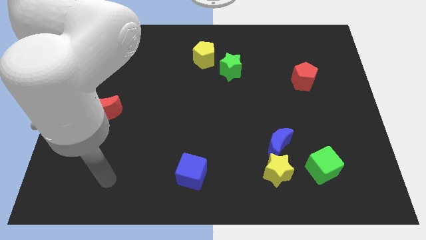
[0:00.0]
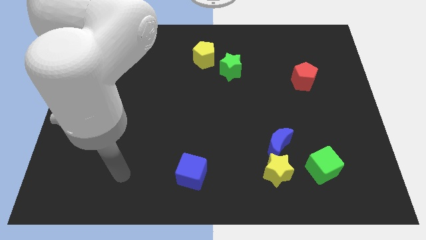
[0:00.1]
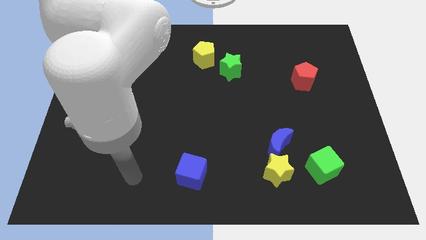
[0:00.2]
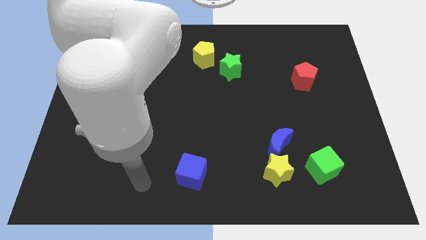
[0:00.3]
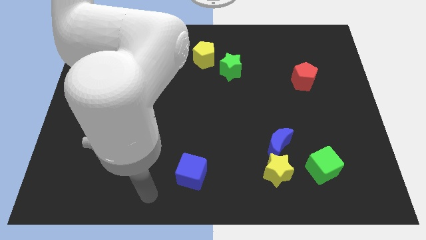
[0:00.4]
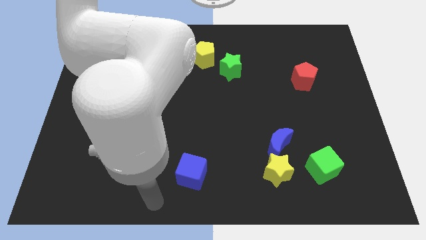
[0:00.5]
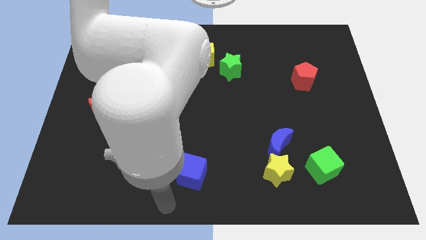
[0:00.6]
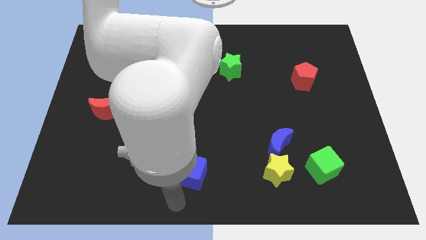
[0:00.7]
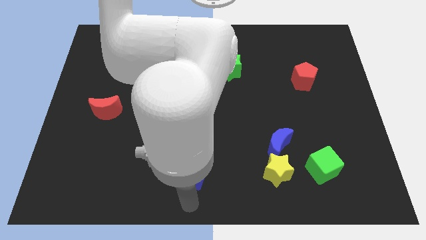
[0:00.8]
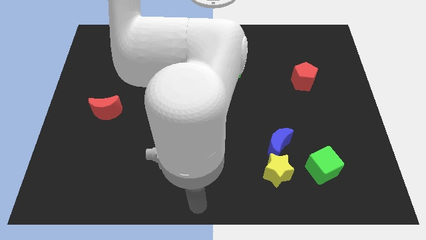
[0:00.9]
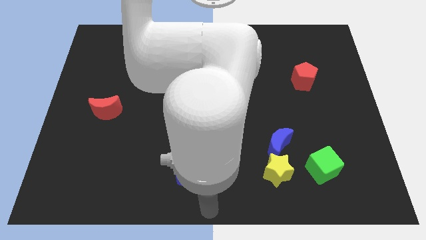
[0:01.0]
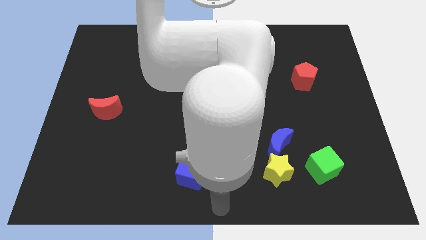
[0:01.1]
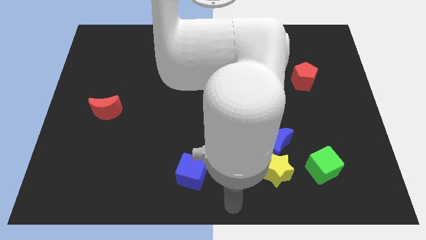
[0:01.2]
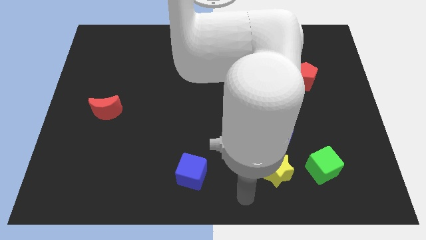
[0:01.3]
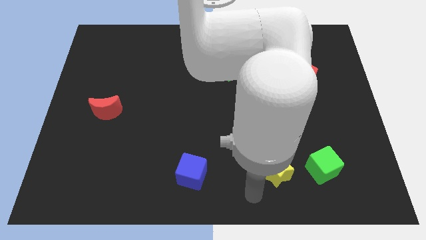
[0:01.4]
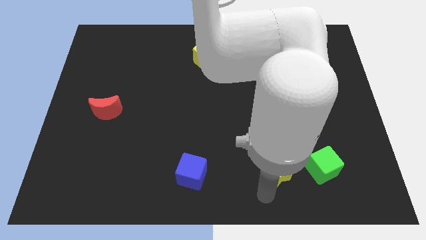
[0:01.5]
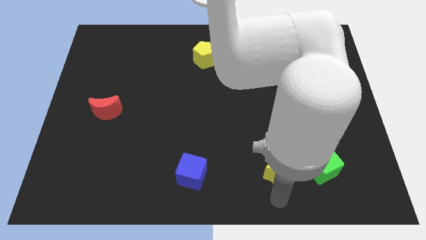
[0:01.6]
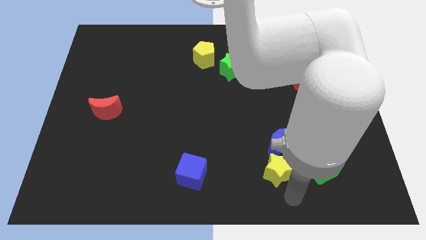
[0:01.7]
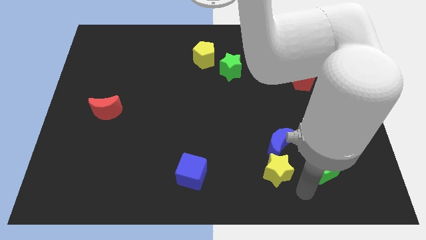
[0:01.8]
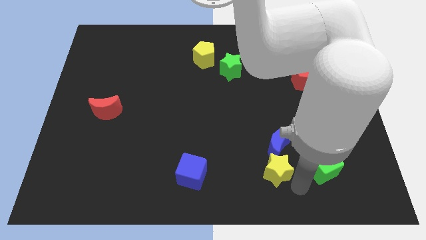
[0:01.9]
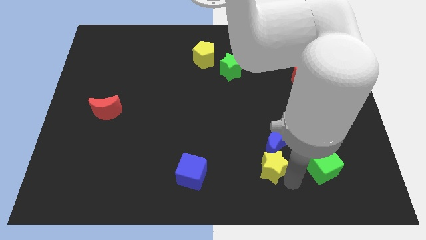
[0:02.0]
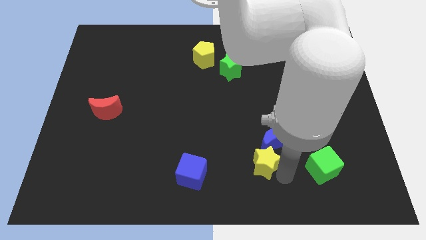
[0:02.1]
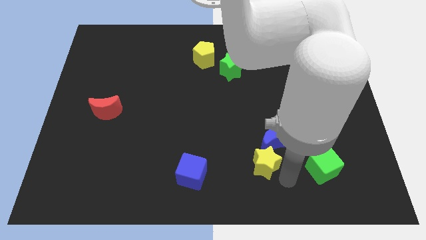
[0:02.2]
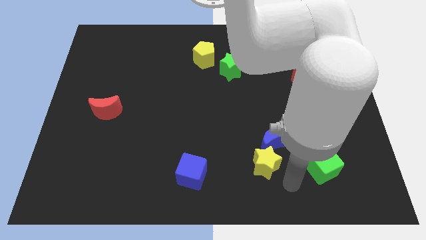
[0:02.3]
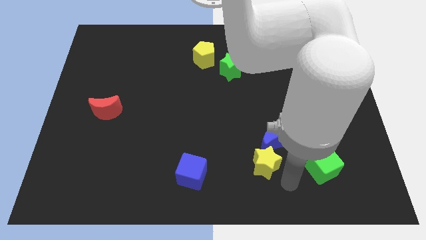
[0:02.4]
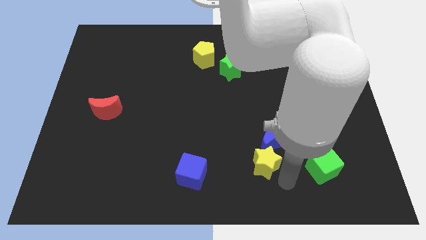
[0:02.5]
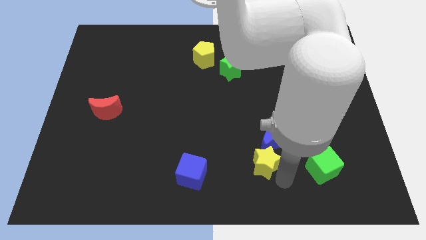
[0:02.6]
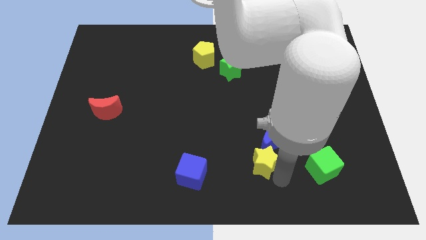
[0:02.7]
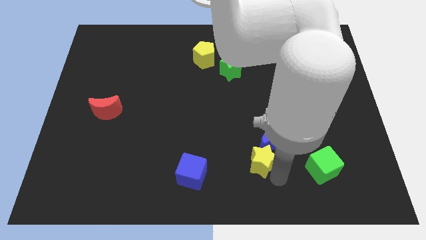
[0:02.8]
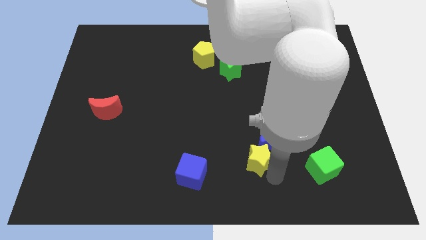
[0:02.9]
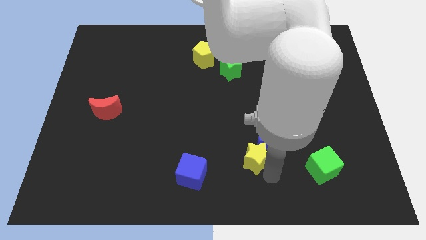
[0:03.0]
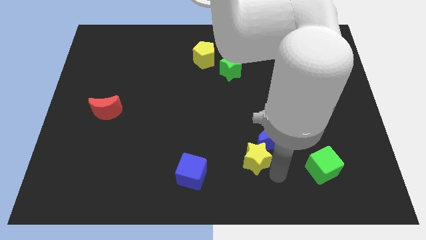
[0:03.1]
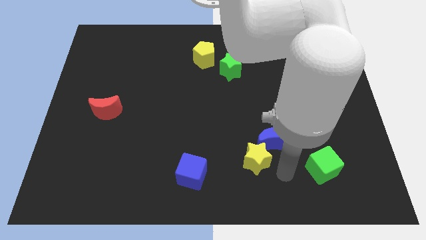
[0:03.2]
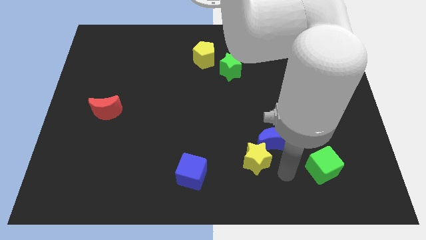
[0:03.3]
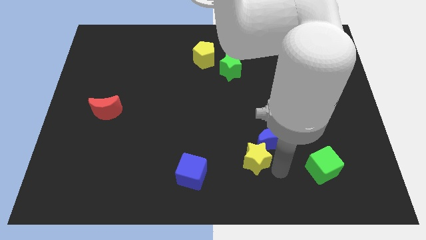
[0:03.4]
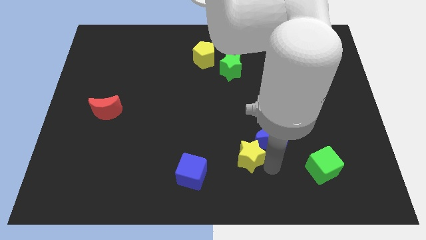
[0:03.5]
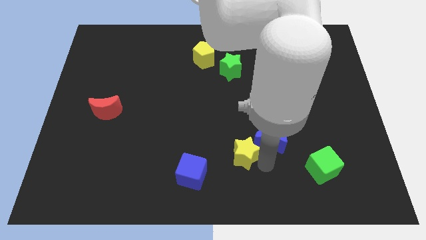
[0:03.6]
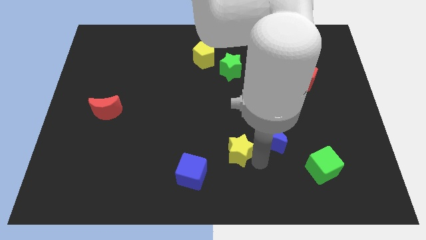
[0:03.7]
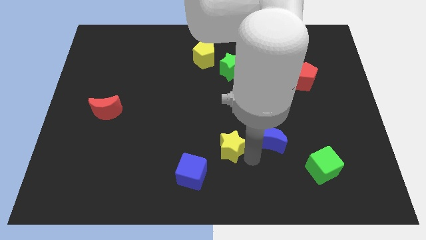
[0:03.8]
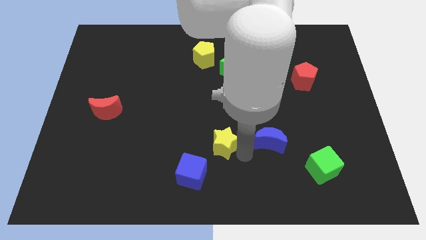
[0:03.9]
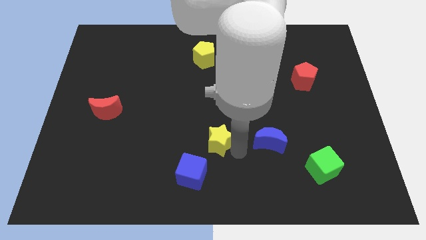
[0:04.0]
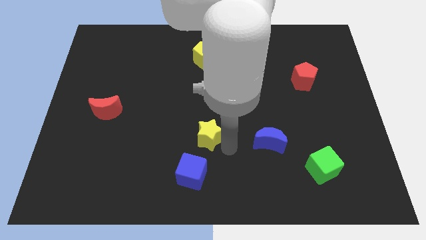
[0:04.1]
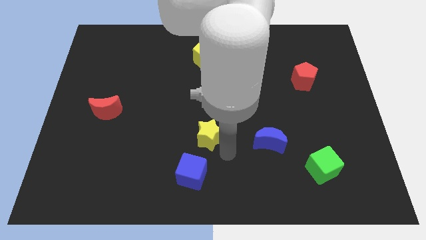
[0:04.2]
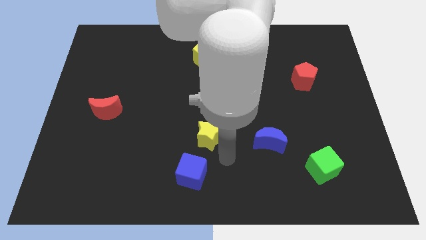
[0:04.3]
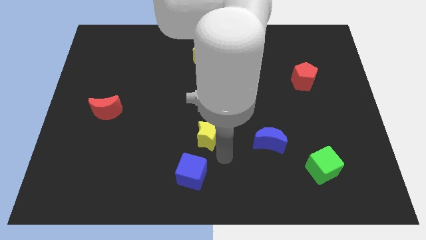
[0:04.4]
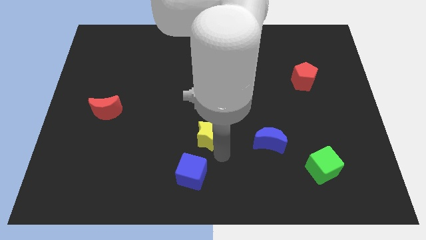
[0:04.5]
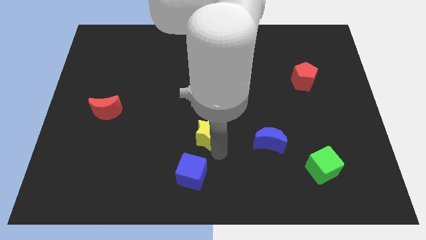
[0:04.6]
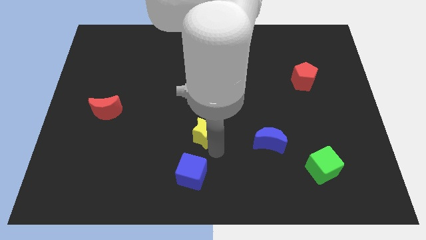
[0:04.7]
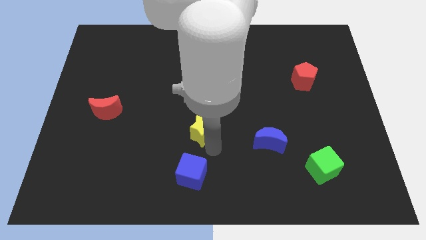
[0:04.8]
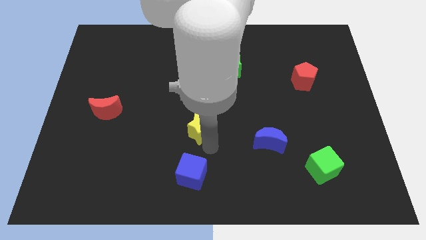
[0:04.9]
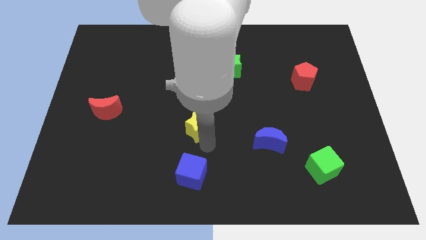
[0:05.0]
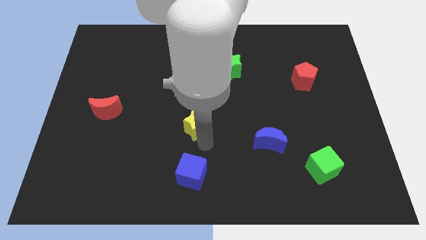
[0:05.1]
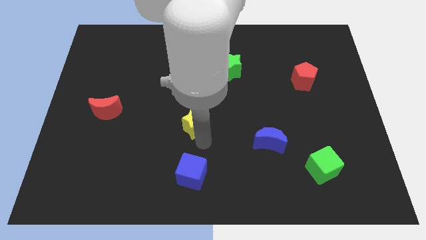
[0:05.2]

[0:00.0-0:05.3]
move the yellow star upwards and left

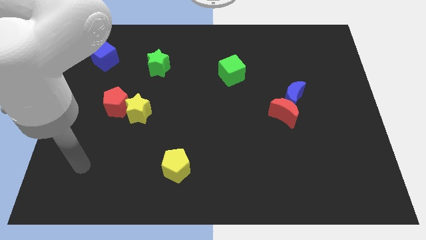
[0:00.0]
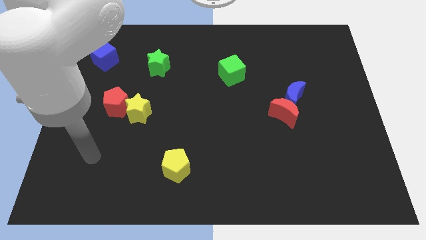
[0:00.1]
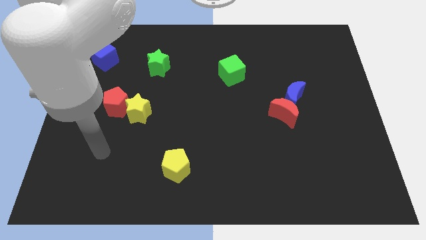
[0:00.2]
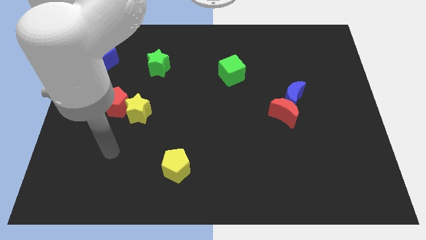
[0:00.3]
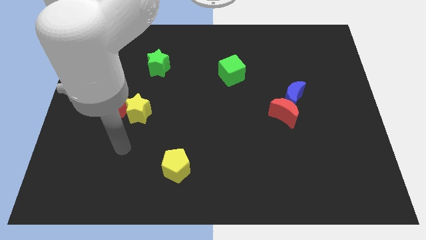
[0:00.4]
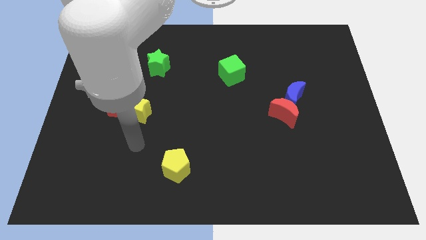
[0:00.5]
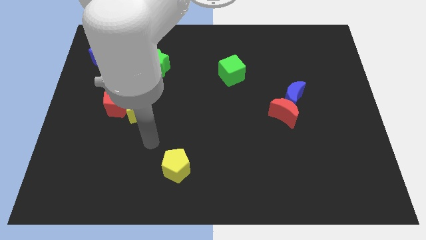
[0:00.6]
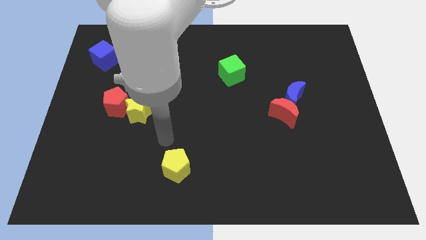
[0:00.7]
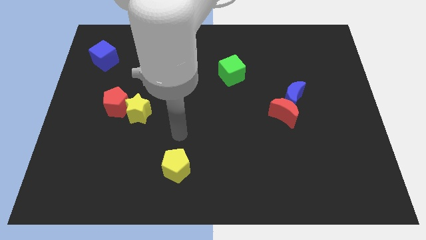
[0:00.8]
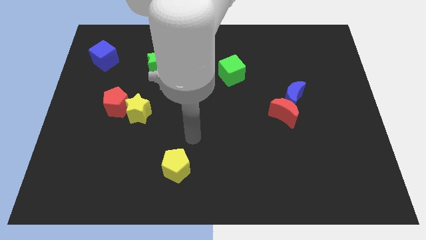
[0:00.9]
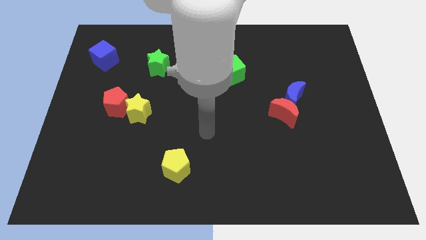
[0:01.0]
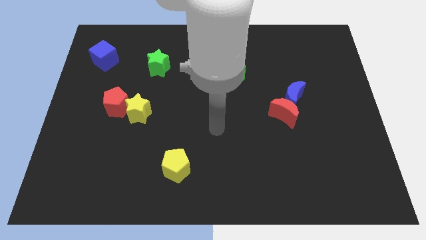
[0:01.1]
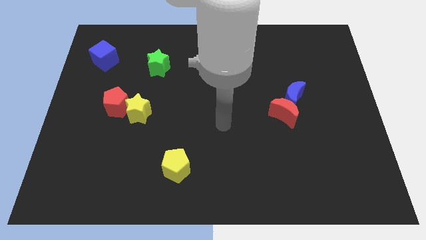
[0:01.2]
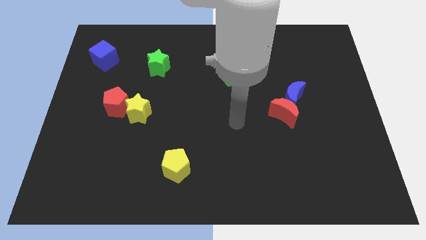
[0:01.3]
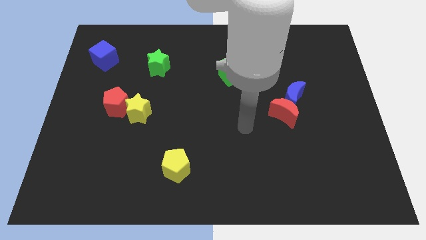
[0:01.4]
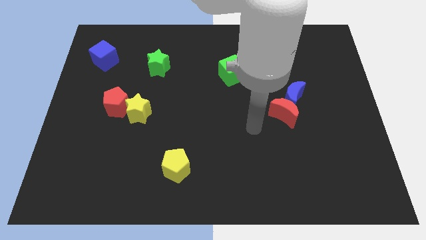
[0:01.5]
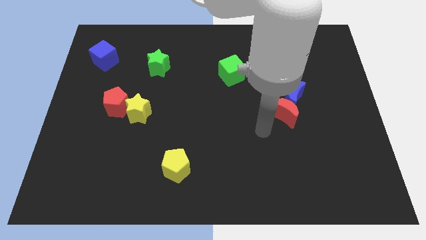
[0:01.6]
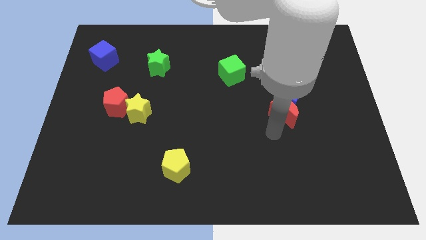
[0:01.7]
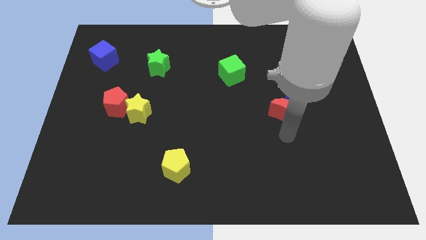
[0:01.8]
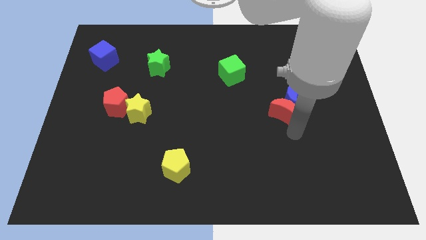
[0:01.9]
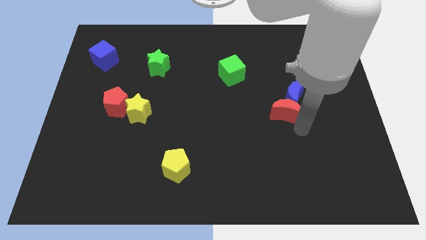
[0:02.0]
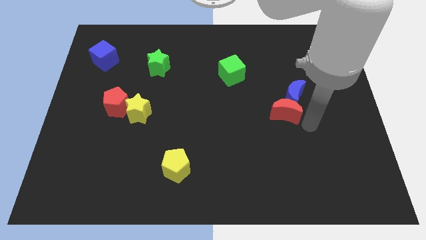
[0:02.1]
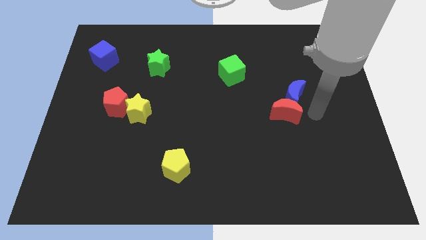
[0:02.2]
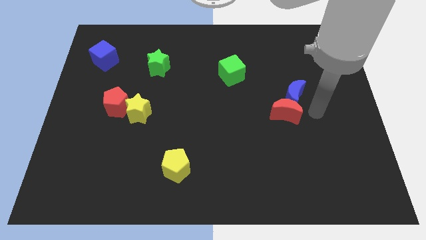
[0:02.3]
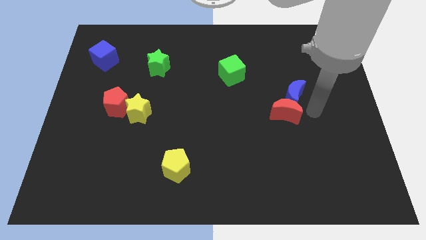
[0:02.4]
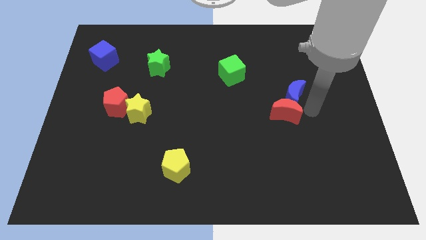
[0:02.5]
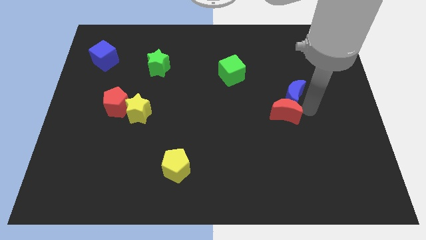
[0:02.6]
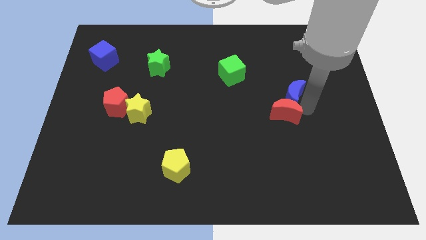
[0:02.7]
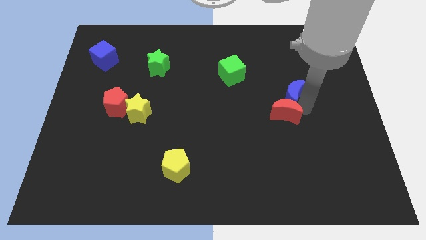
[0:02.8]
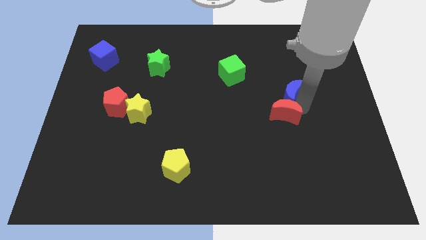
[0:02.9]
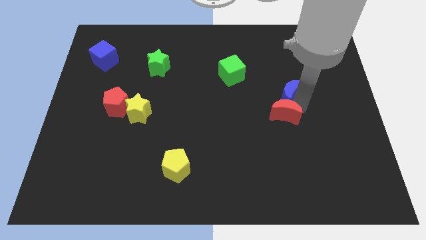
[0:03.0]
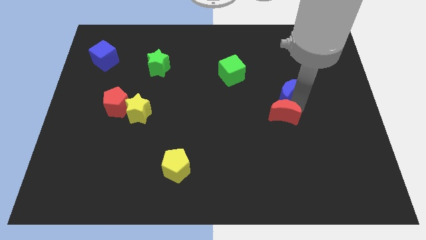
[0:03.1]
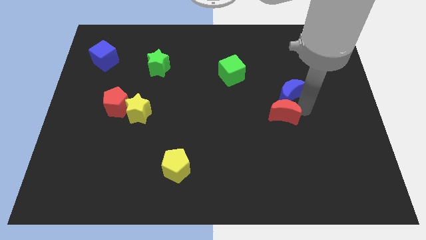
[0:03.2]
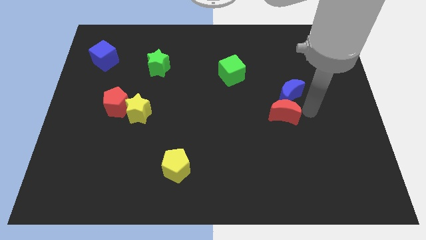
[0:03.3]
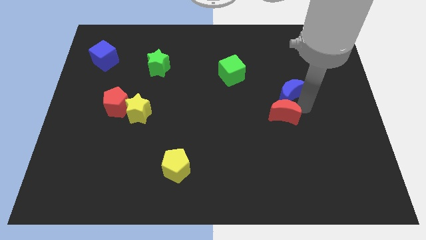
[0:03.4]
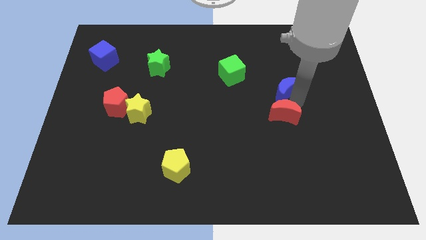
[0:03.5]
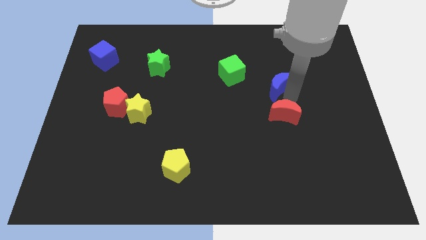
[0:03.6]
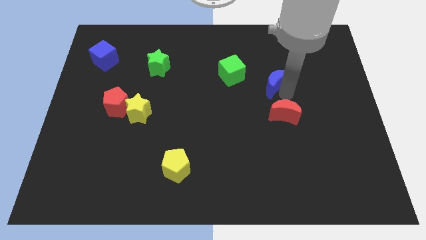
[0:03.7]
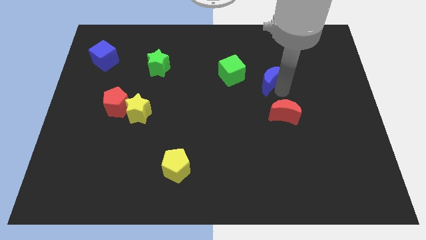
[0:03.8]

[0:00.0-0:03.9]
slightly push the blue moon diagonally upwards and left
